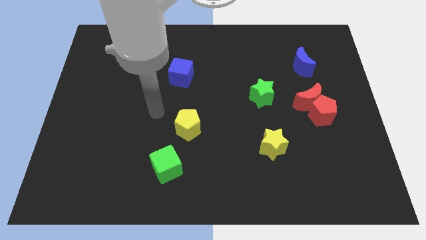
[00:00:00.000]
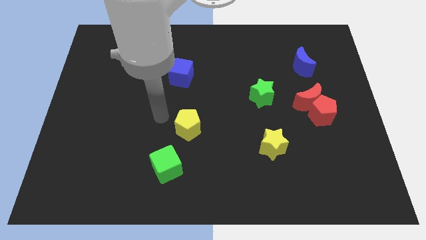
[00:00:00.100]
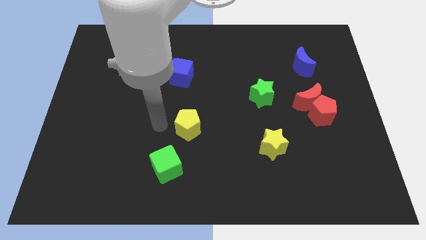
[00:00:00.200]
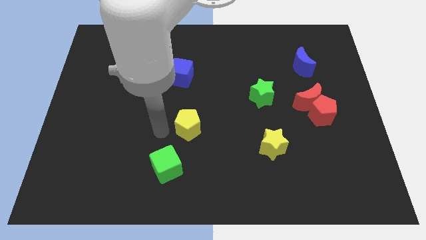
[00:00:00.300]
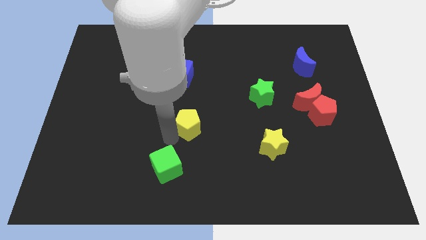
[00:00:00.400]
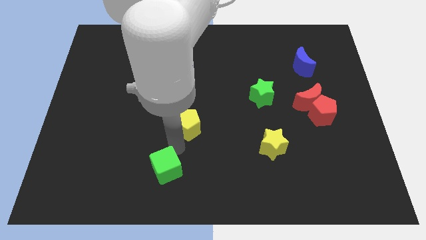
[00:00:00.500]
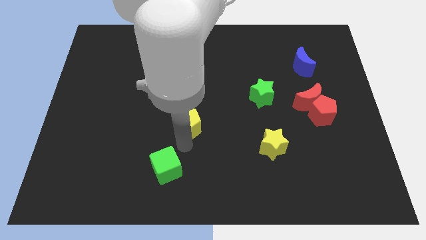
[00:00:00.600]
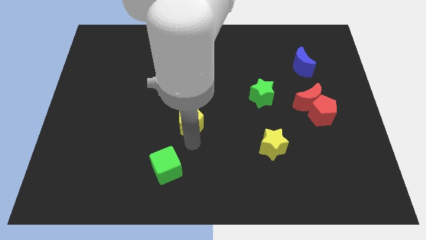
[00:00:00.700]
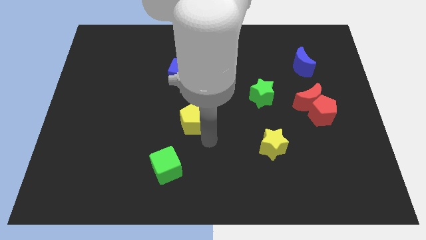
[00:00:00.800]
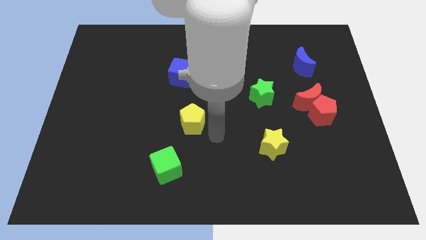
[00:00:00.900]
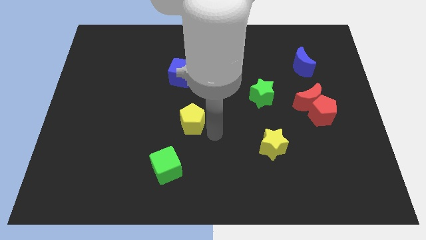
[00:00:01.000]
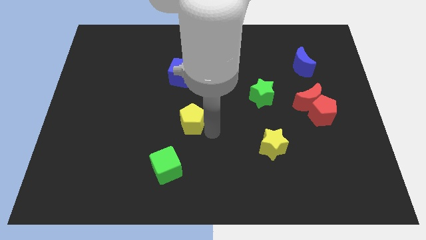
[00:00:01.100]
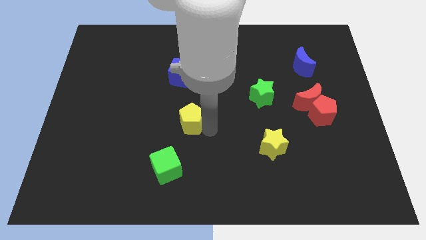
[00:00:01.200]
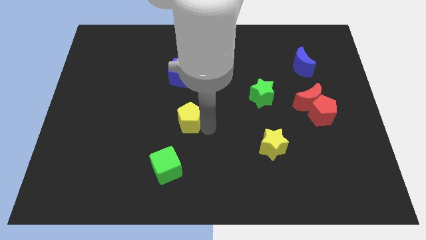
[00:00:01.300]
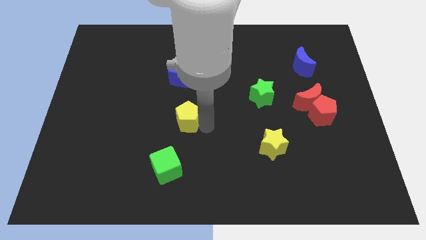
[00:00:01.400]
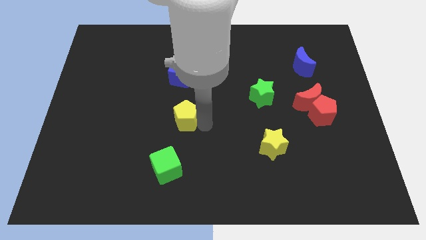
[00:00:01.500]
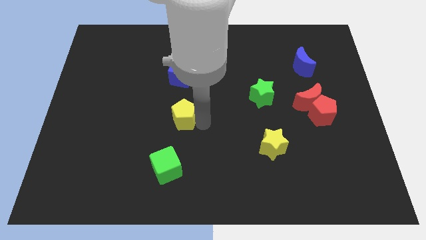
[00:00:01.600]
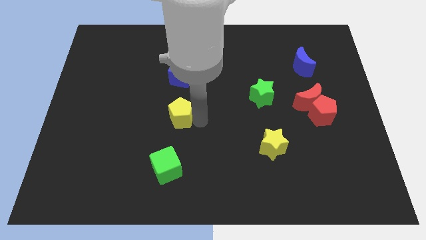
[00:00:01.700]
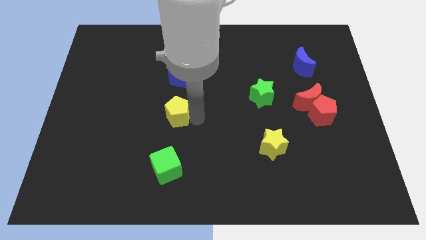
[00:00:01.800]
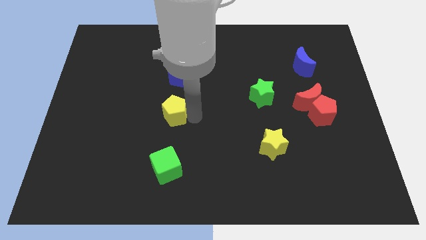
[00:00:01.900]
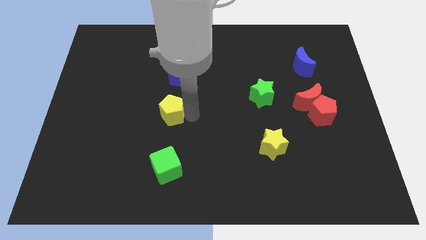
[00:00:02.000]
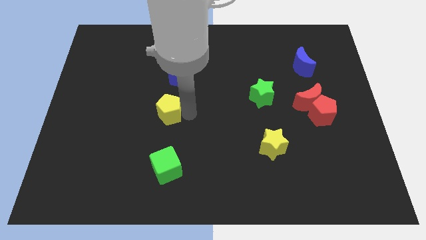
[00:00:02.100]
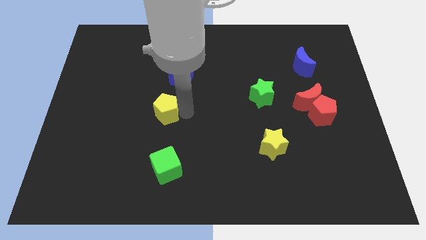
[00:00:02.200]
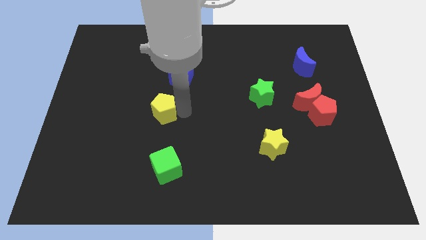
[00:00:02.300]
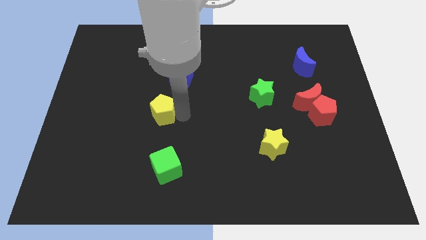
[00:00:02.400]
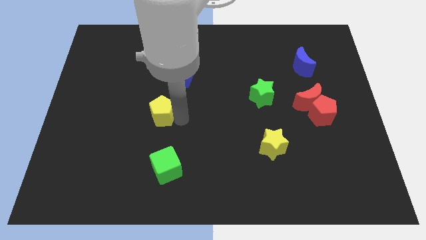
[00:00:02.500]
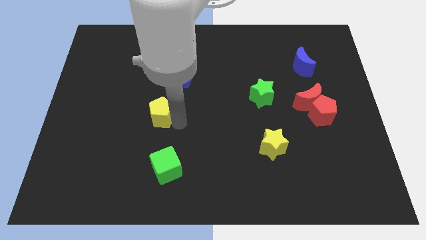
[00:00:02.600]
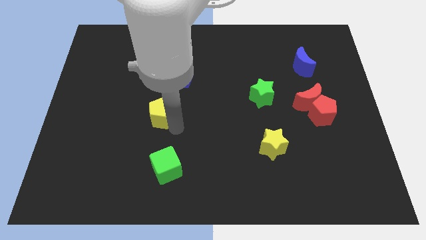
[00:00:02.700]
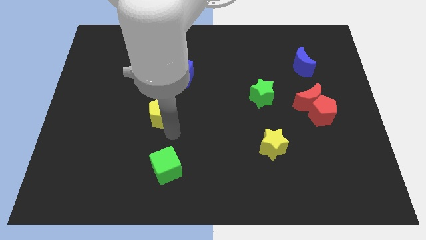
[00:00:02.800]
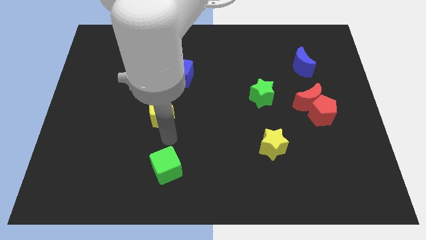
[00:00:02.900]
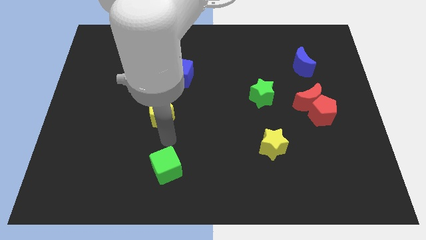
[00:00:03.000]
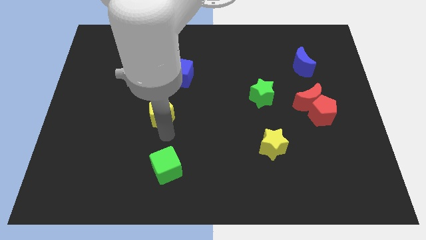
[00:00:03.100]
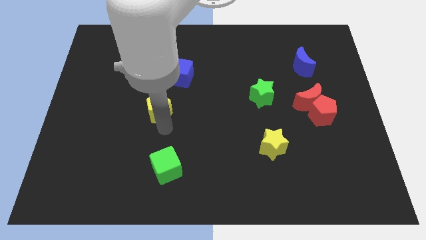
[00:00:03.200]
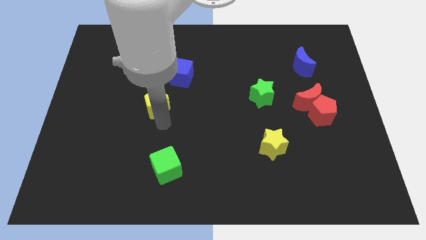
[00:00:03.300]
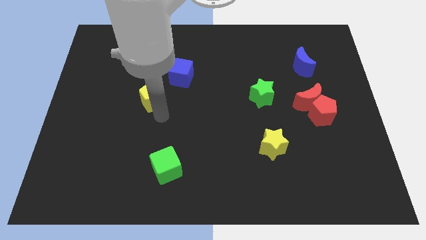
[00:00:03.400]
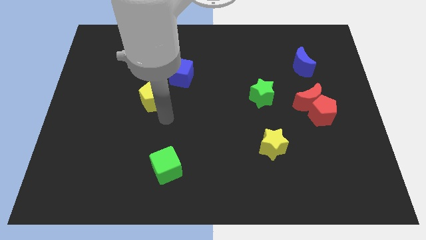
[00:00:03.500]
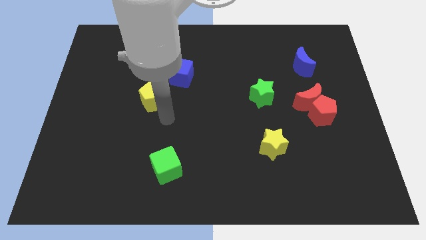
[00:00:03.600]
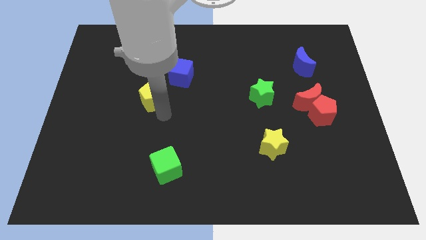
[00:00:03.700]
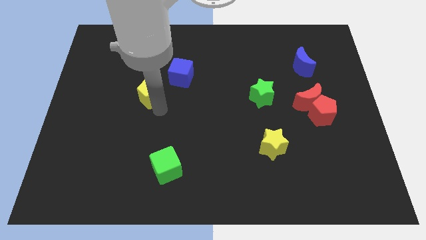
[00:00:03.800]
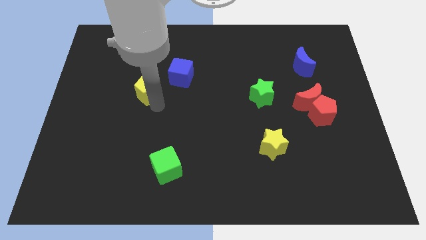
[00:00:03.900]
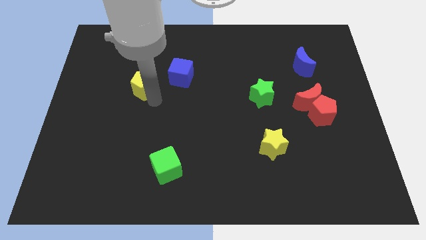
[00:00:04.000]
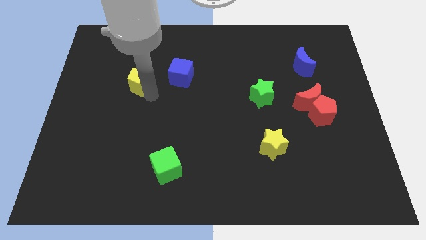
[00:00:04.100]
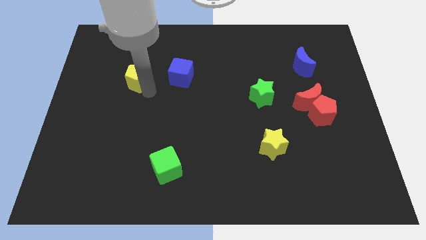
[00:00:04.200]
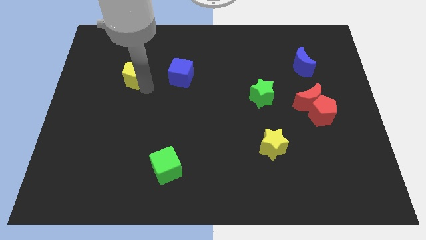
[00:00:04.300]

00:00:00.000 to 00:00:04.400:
push the yellow pentagon up and left diagonally

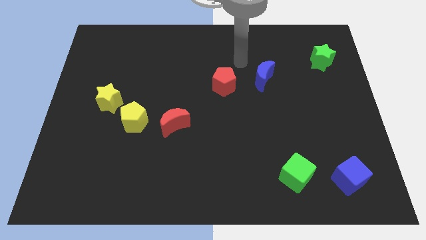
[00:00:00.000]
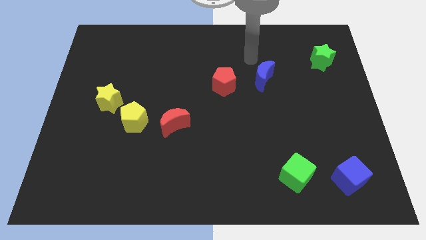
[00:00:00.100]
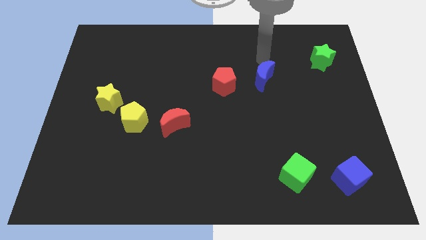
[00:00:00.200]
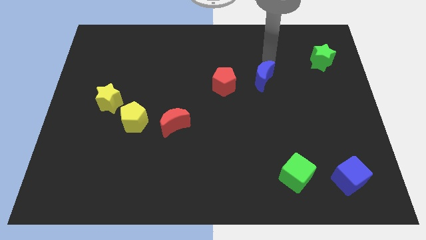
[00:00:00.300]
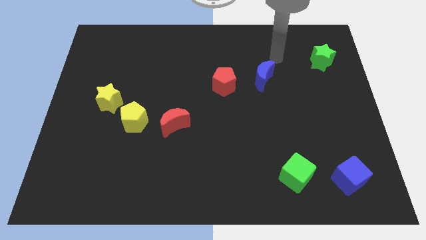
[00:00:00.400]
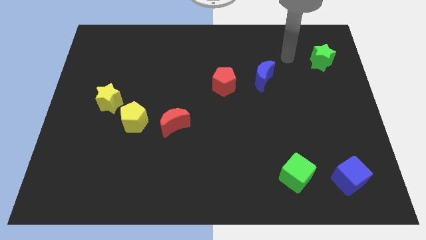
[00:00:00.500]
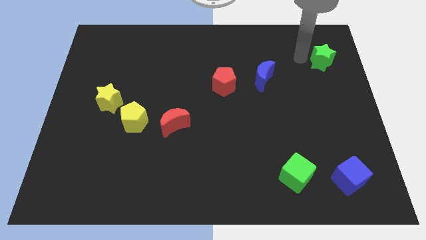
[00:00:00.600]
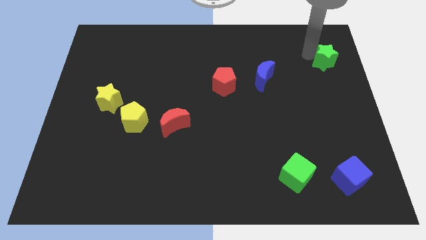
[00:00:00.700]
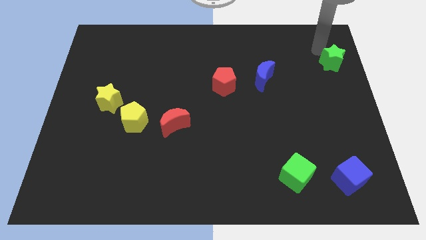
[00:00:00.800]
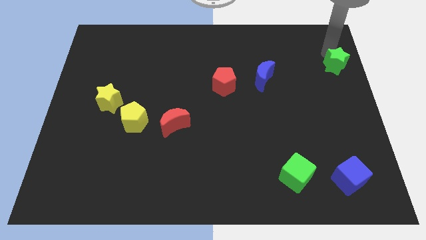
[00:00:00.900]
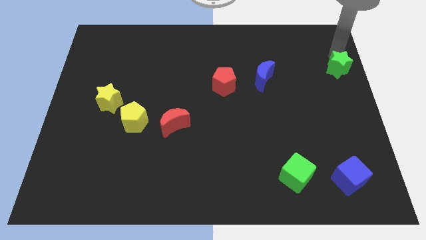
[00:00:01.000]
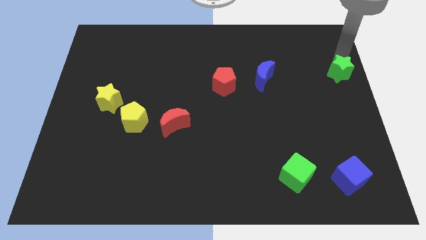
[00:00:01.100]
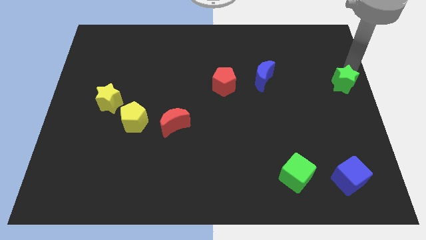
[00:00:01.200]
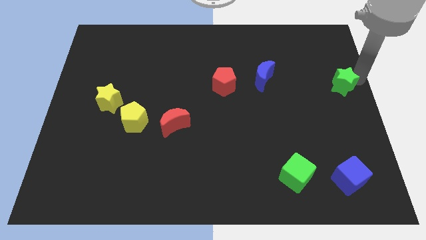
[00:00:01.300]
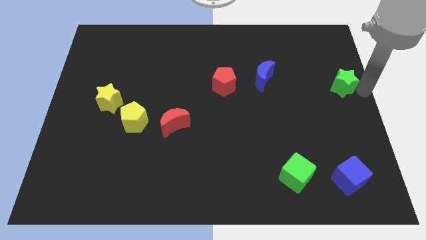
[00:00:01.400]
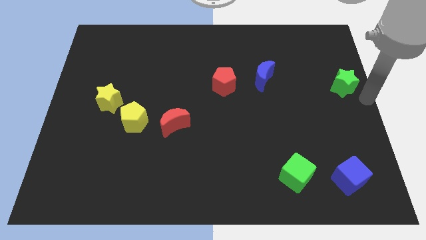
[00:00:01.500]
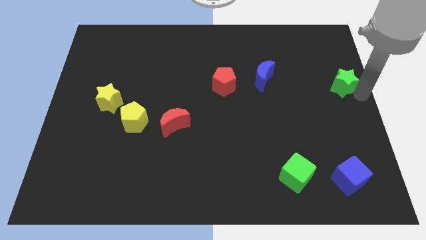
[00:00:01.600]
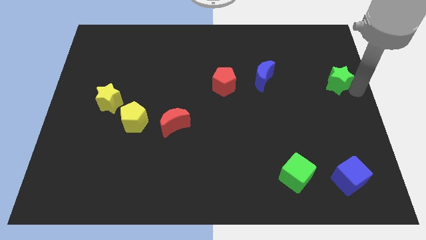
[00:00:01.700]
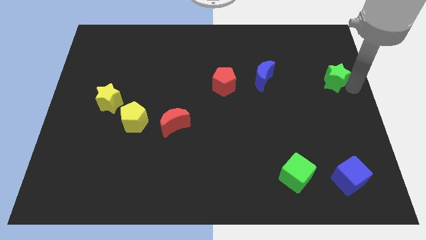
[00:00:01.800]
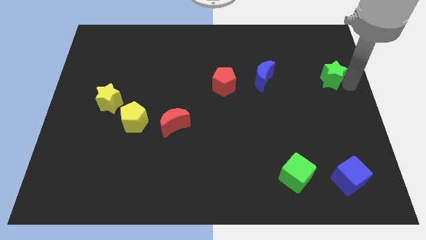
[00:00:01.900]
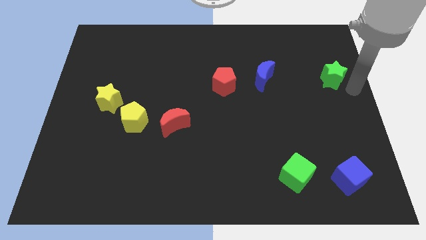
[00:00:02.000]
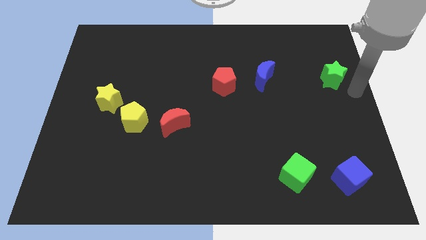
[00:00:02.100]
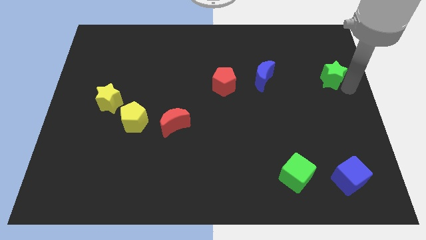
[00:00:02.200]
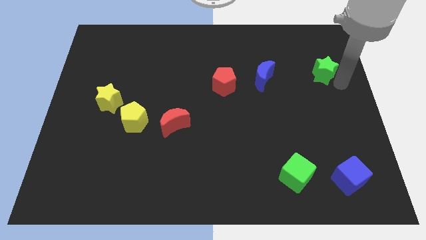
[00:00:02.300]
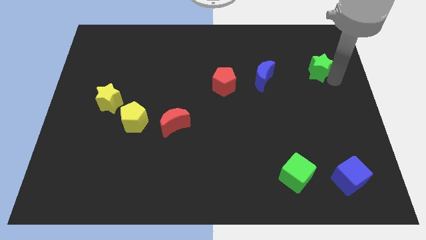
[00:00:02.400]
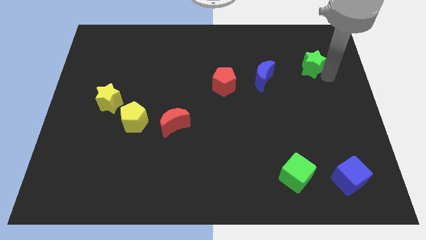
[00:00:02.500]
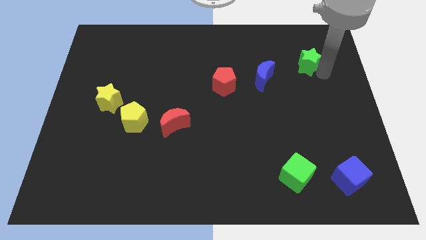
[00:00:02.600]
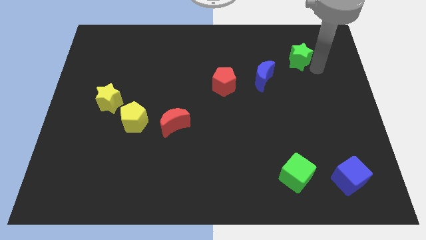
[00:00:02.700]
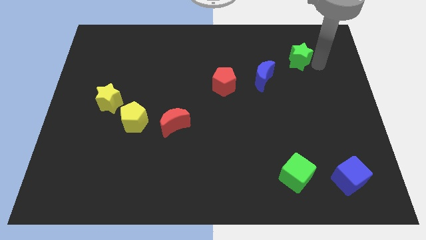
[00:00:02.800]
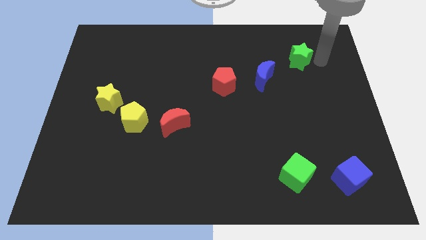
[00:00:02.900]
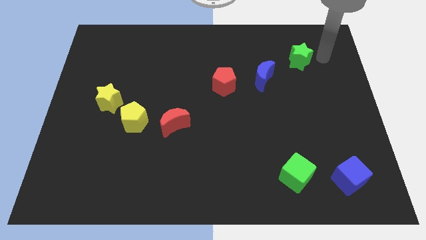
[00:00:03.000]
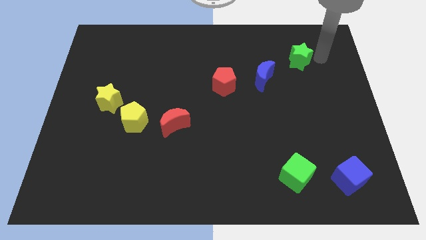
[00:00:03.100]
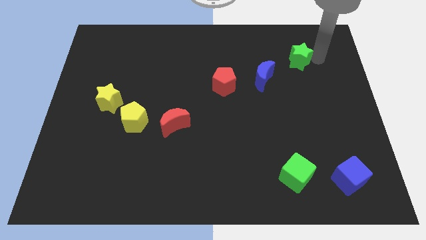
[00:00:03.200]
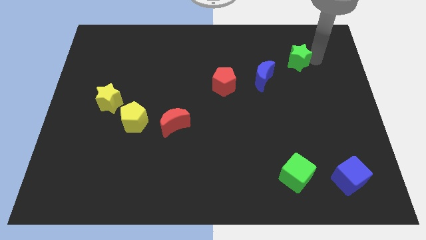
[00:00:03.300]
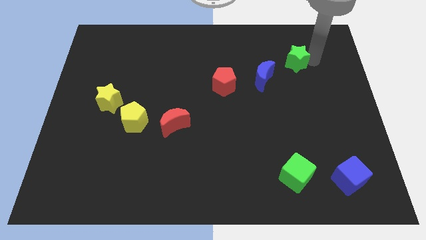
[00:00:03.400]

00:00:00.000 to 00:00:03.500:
push the green star left somewhat
